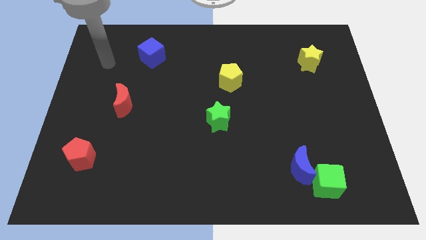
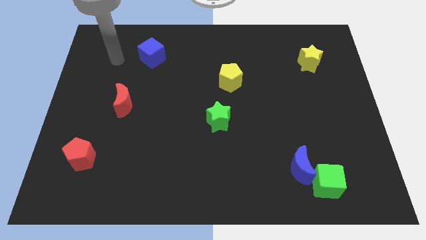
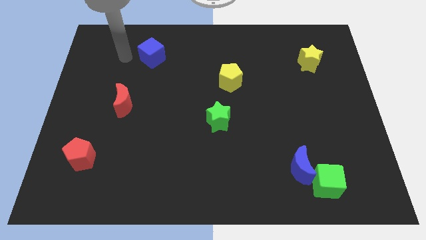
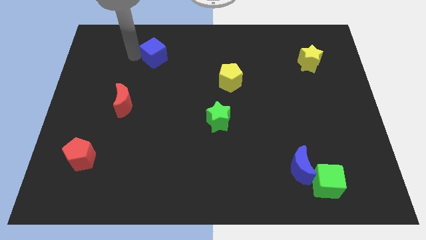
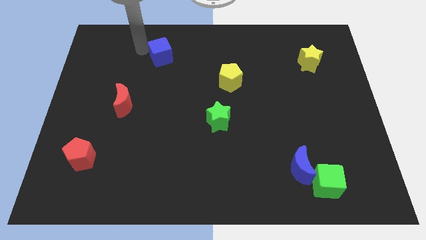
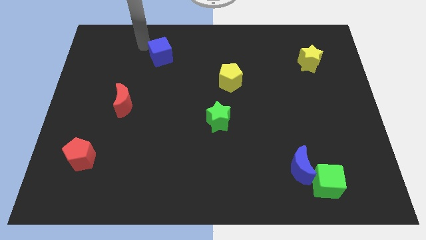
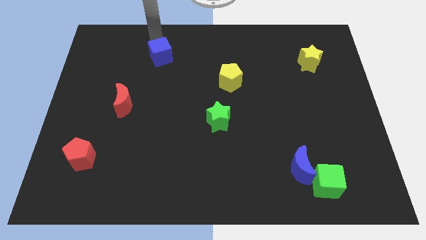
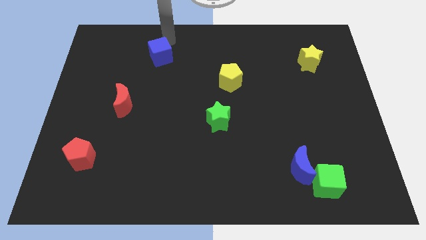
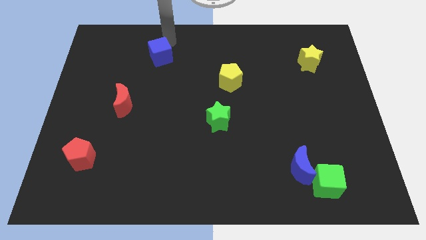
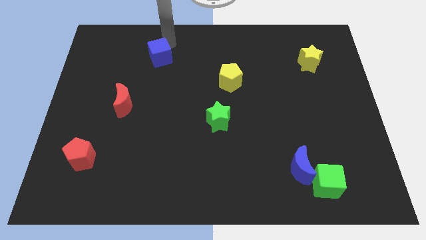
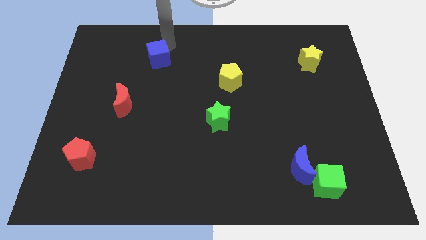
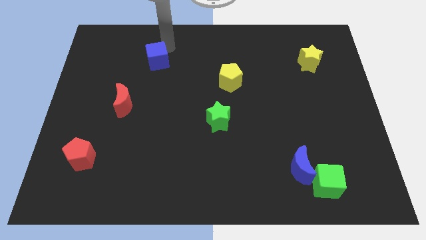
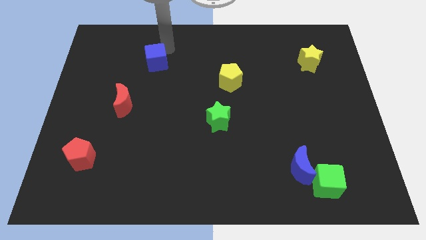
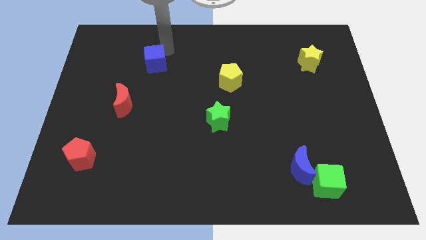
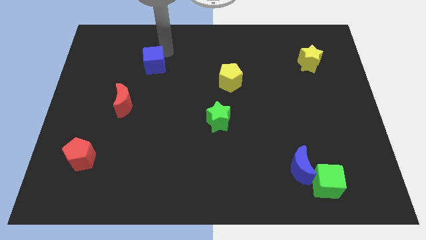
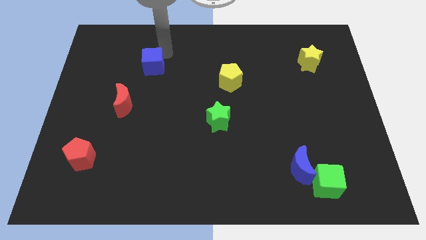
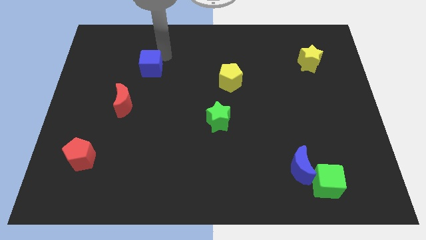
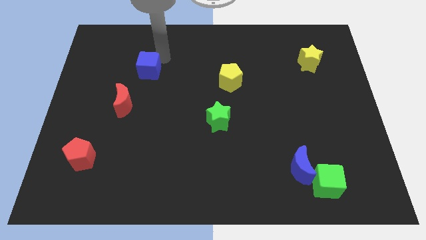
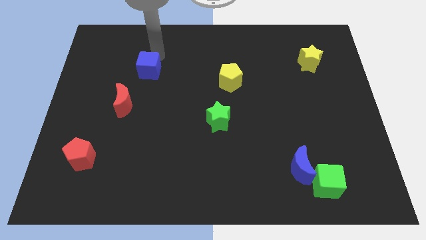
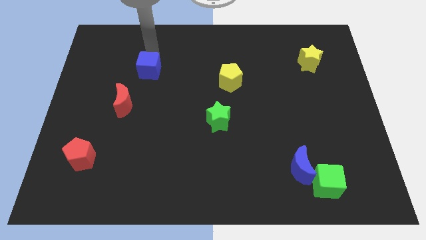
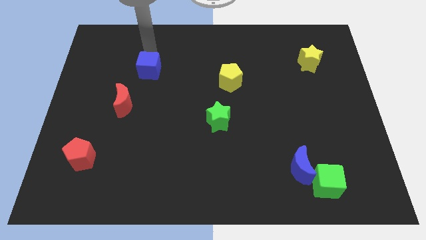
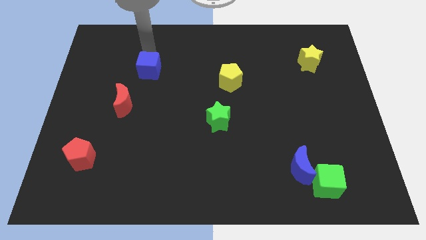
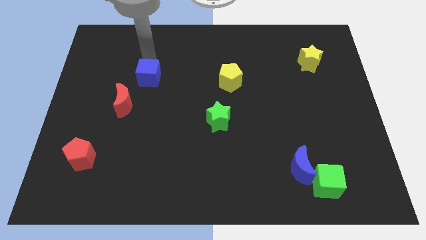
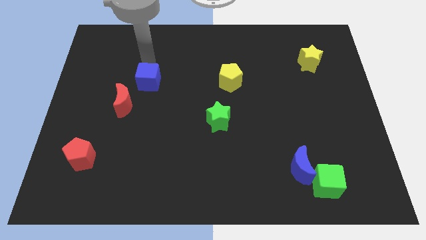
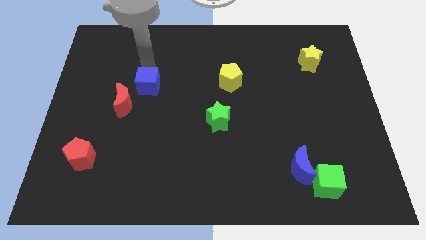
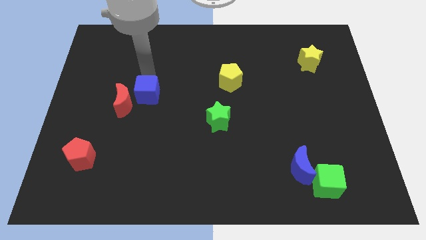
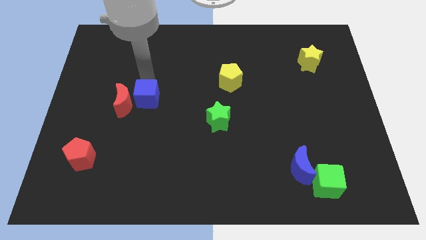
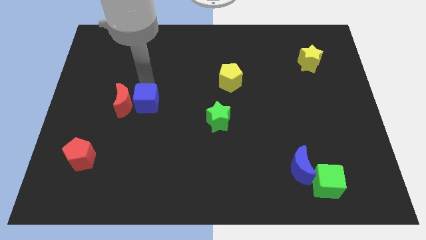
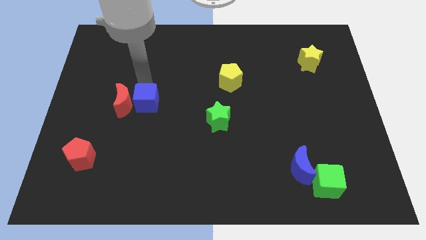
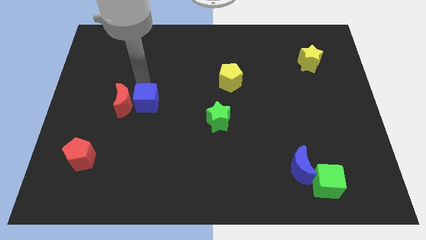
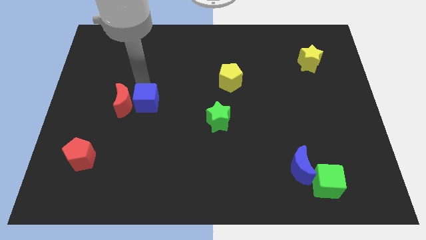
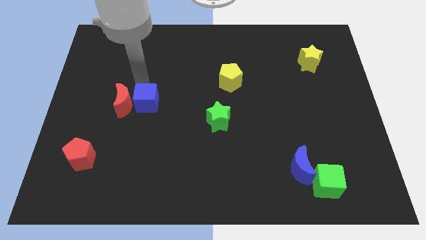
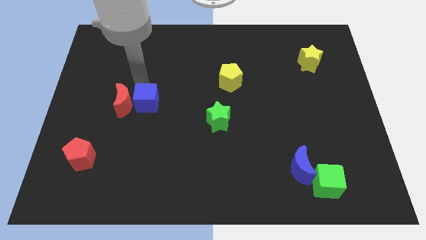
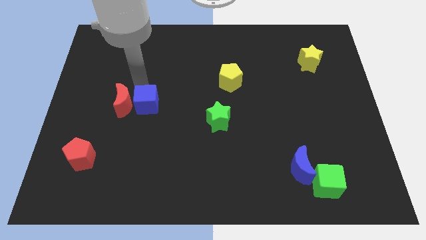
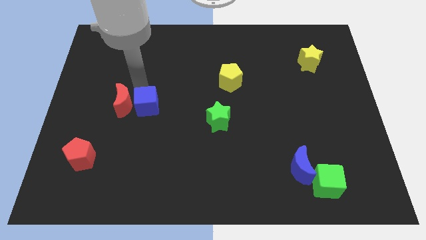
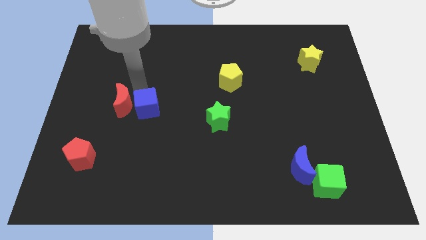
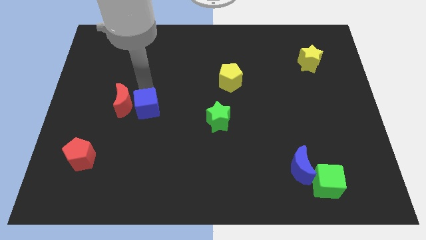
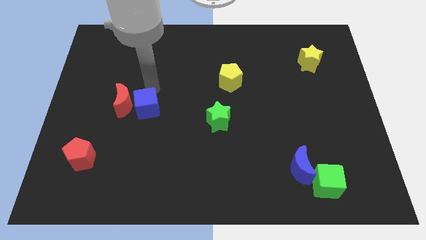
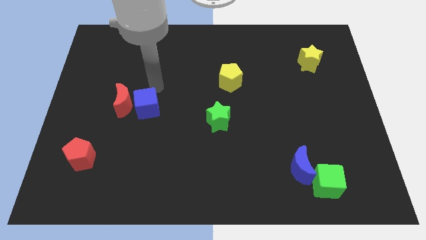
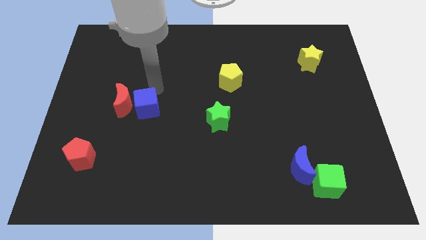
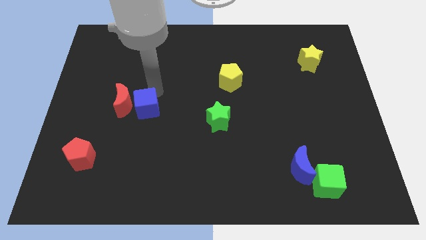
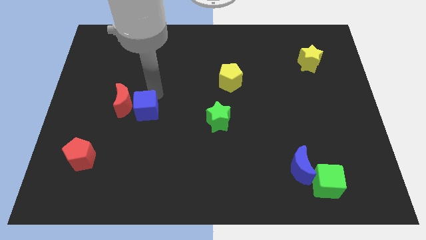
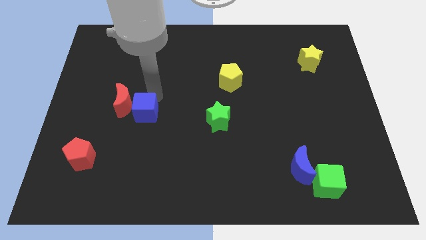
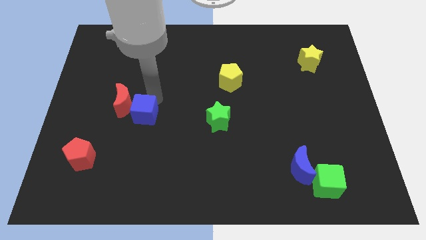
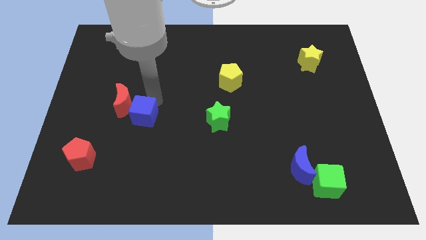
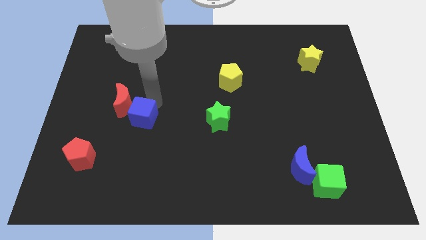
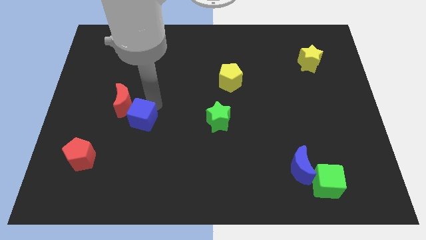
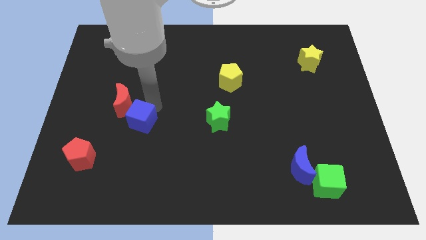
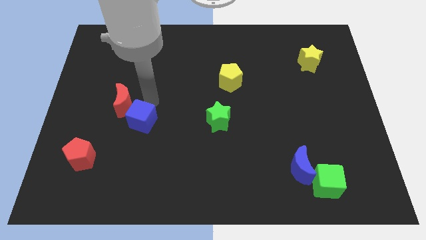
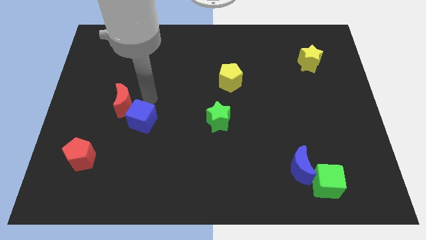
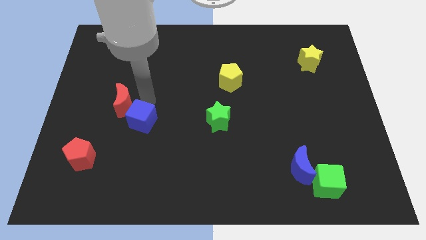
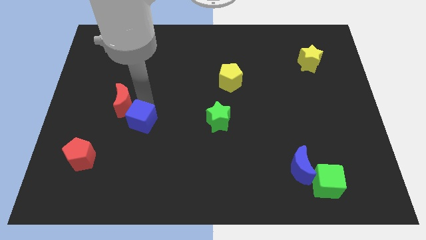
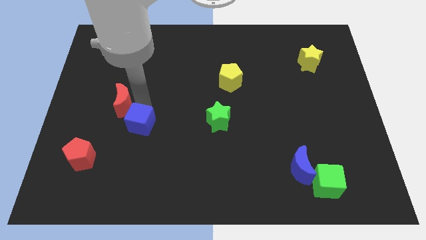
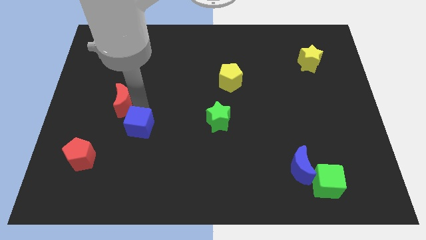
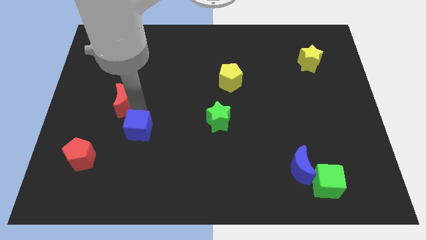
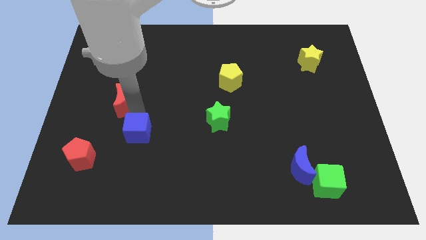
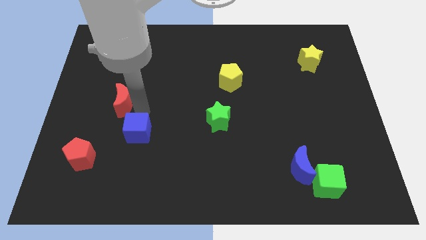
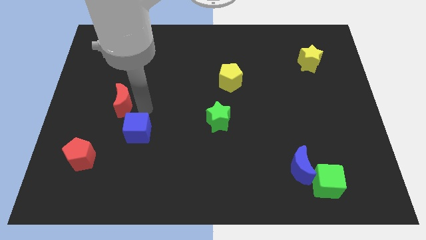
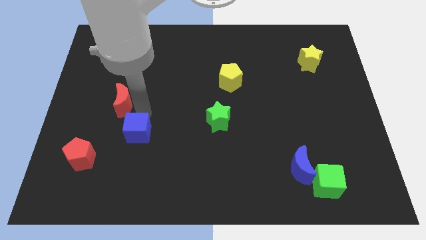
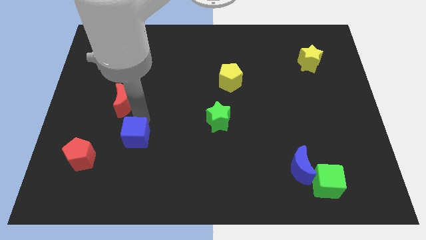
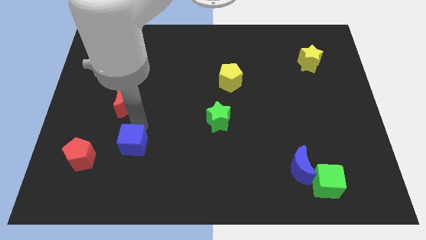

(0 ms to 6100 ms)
move the blue cube just right of the red pentagon
